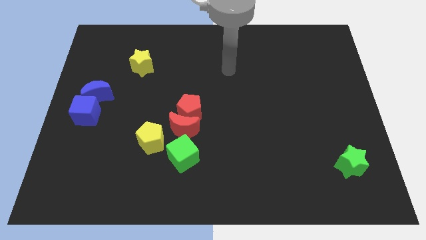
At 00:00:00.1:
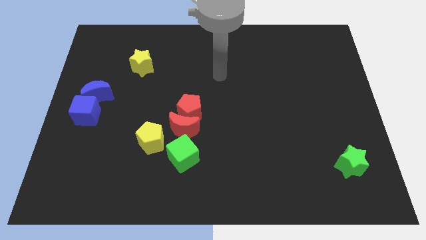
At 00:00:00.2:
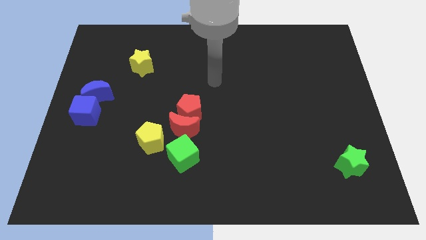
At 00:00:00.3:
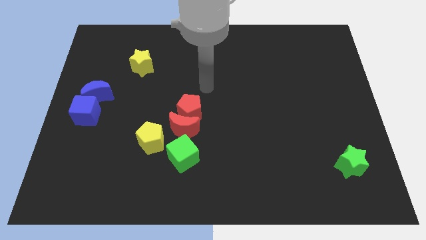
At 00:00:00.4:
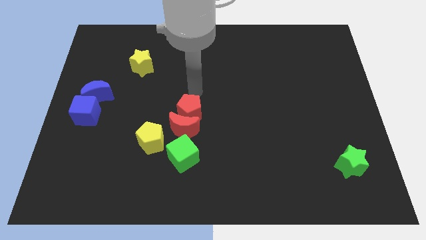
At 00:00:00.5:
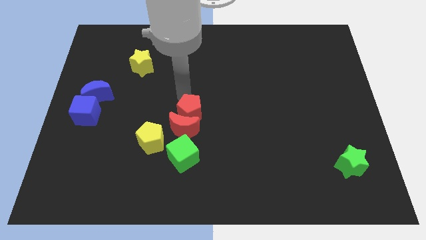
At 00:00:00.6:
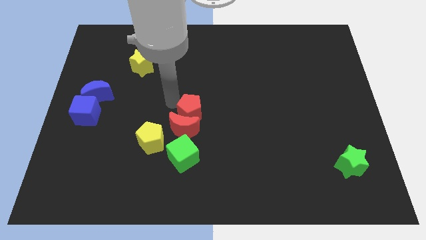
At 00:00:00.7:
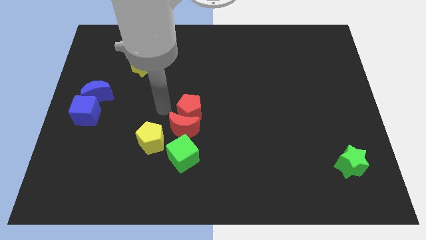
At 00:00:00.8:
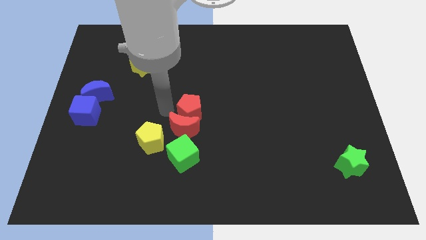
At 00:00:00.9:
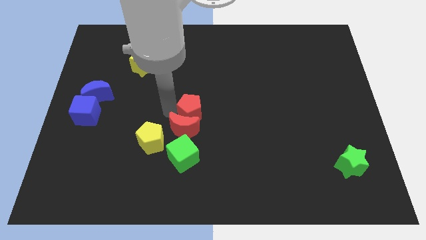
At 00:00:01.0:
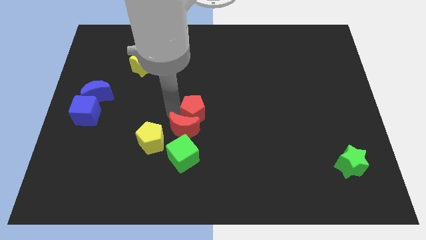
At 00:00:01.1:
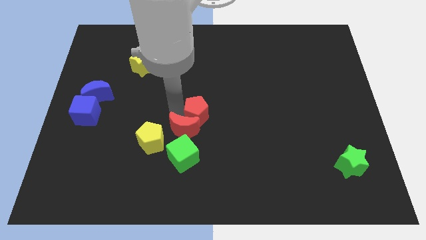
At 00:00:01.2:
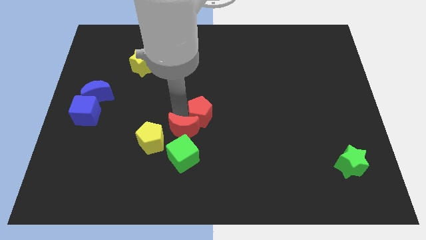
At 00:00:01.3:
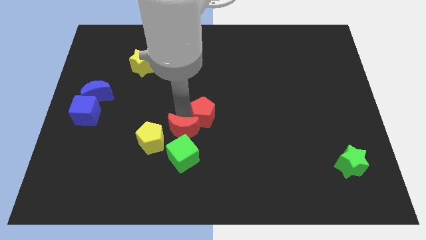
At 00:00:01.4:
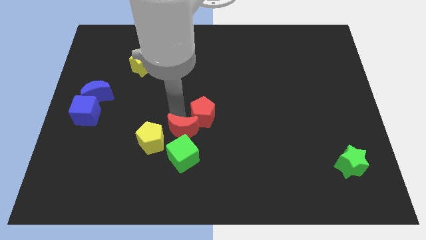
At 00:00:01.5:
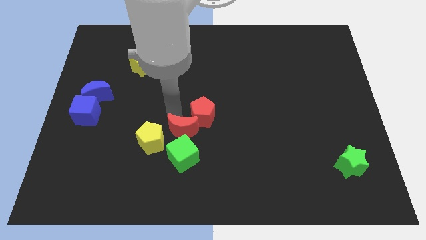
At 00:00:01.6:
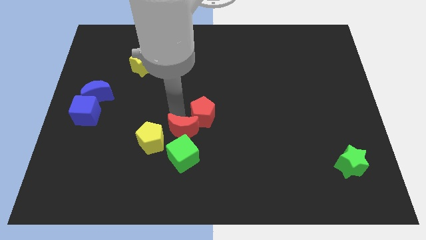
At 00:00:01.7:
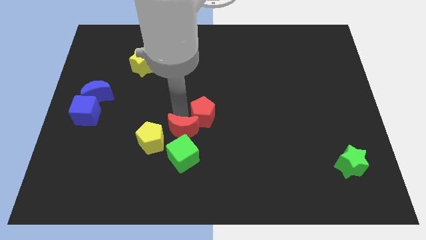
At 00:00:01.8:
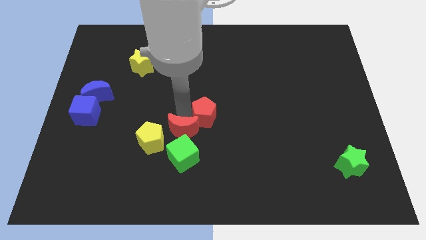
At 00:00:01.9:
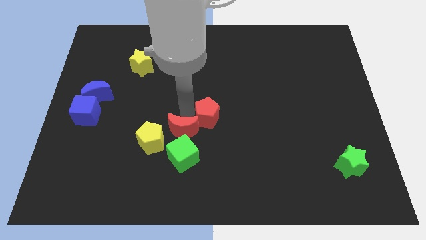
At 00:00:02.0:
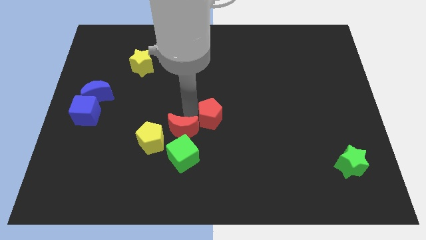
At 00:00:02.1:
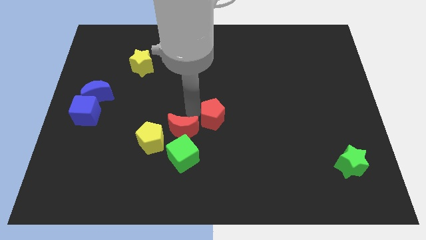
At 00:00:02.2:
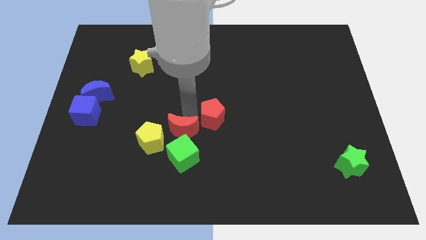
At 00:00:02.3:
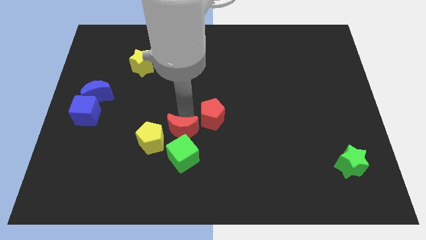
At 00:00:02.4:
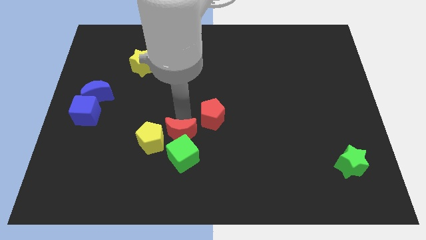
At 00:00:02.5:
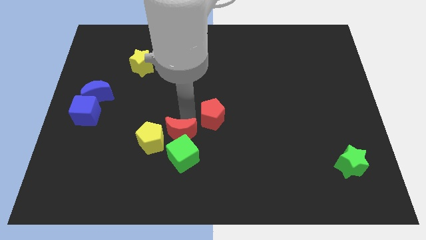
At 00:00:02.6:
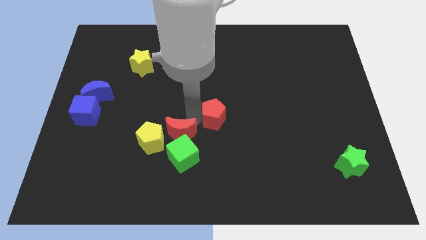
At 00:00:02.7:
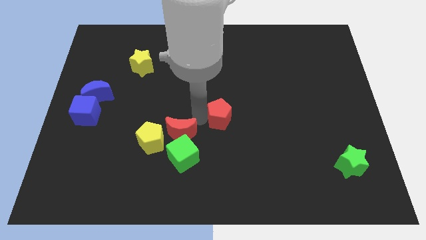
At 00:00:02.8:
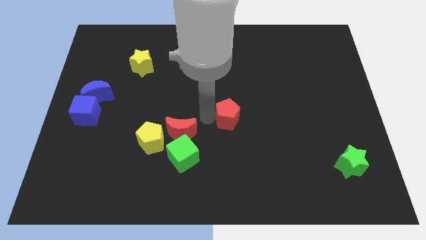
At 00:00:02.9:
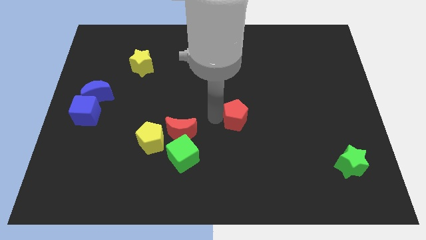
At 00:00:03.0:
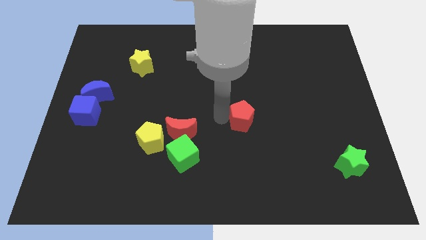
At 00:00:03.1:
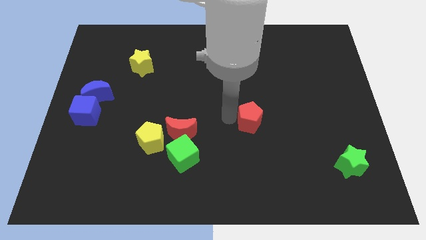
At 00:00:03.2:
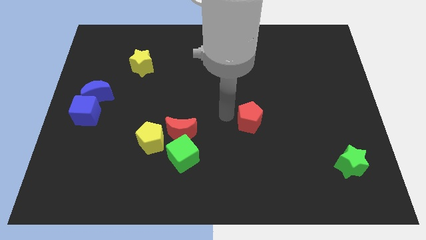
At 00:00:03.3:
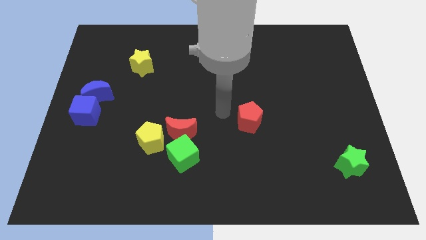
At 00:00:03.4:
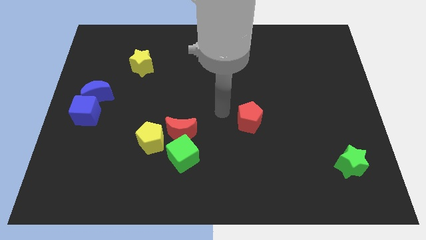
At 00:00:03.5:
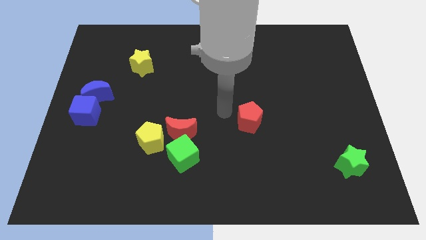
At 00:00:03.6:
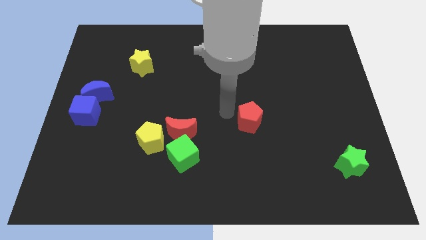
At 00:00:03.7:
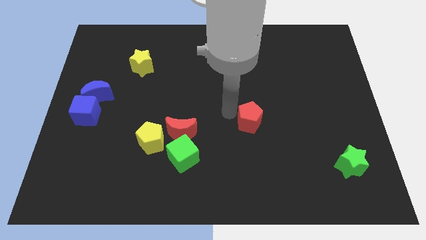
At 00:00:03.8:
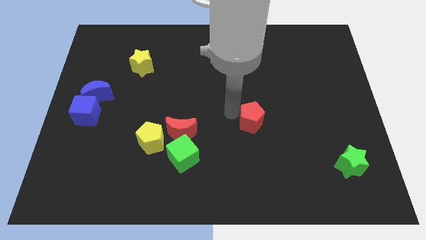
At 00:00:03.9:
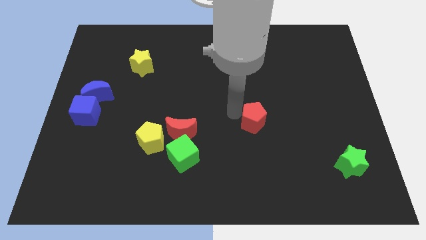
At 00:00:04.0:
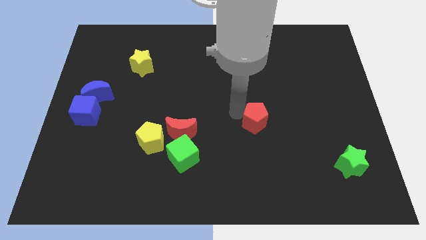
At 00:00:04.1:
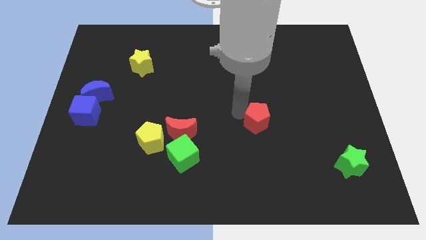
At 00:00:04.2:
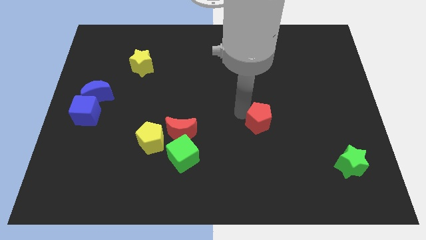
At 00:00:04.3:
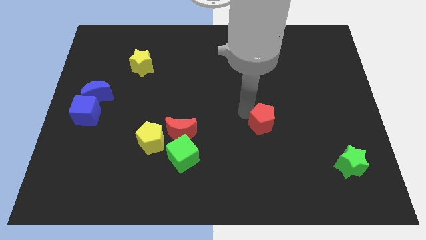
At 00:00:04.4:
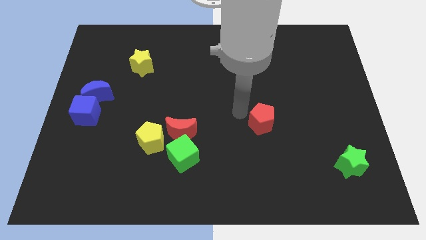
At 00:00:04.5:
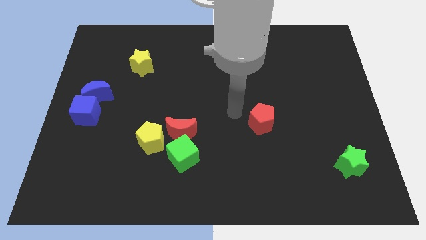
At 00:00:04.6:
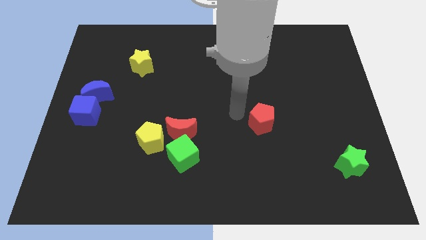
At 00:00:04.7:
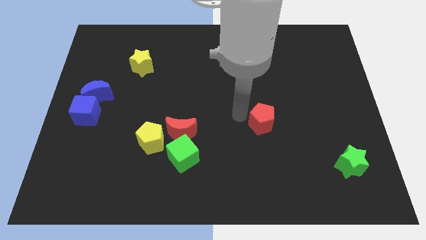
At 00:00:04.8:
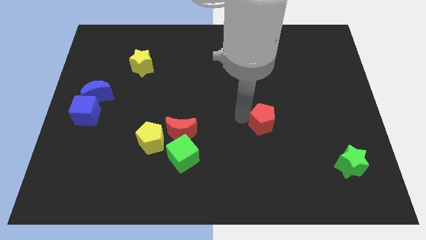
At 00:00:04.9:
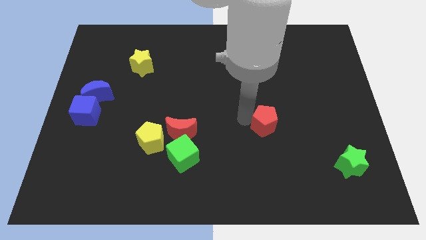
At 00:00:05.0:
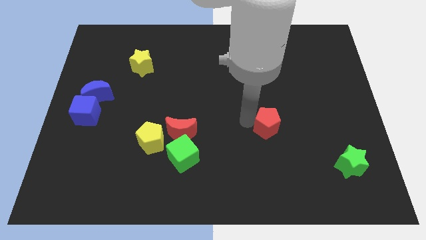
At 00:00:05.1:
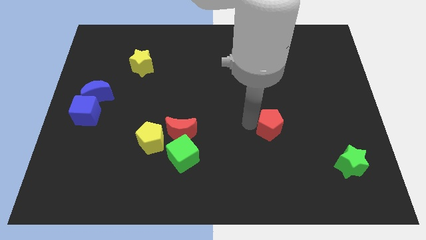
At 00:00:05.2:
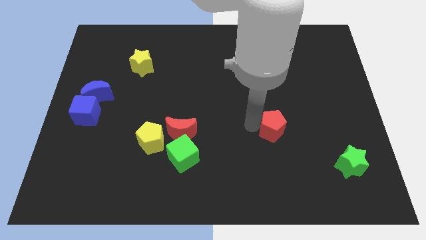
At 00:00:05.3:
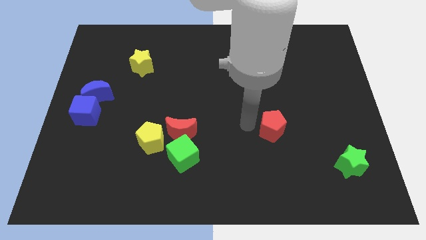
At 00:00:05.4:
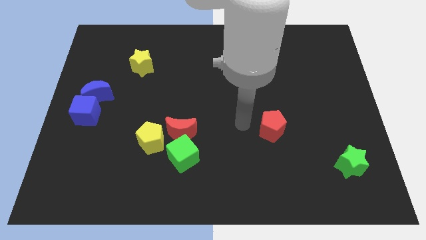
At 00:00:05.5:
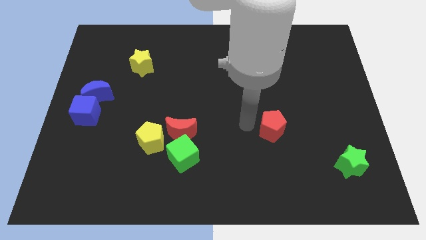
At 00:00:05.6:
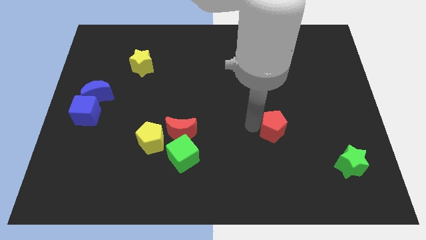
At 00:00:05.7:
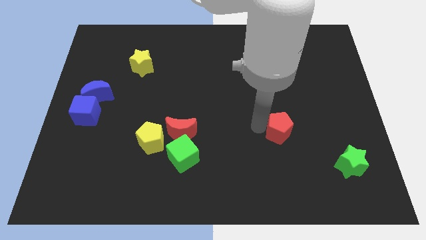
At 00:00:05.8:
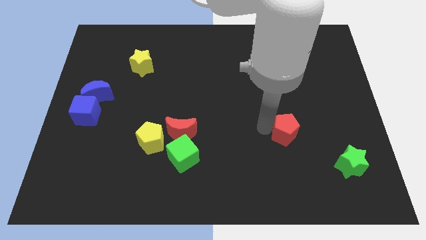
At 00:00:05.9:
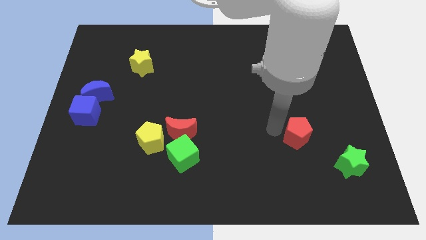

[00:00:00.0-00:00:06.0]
move the red pentagon to the top left of the green star

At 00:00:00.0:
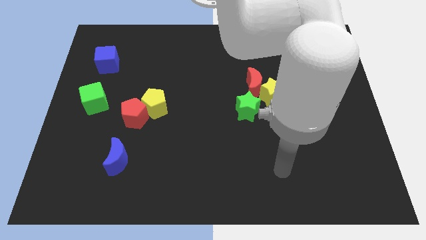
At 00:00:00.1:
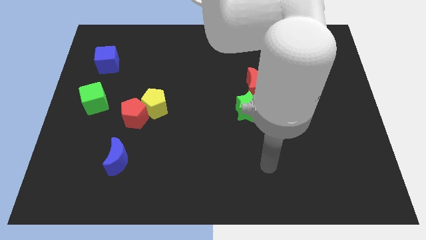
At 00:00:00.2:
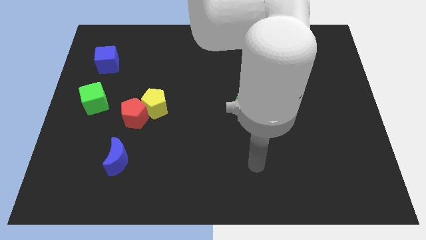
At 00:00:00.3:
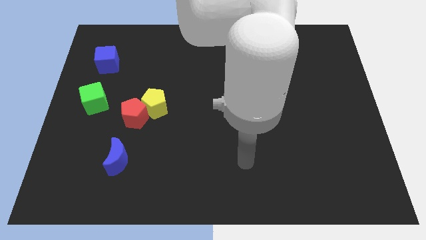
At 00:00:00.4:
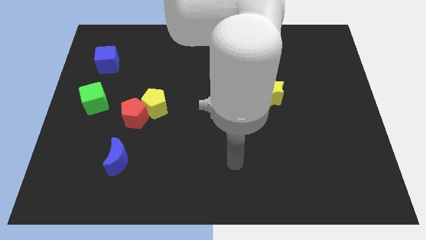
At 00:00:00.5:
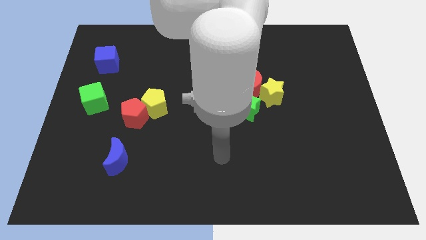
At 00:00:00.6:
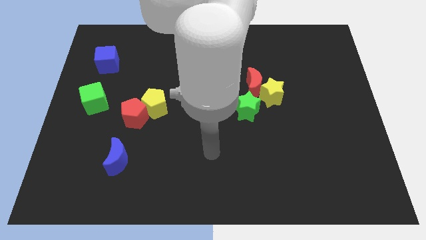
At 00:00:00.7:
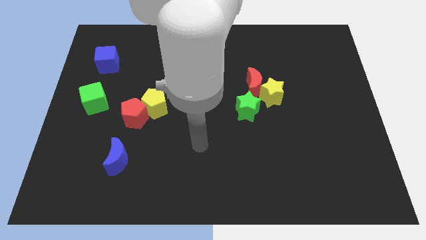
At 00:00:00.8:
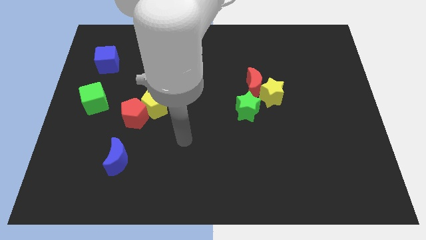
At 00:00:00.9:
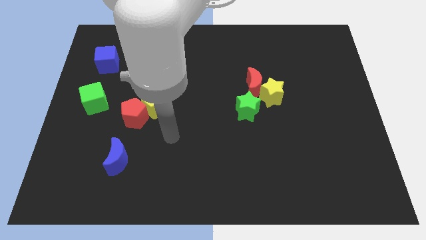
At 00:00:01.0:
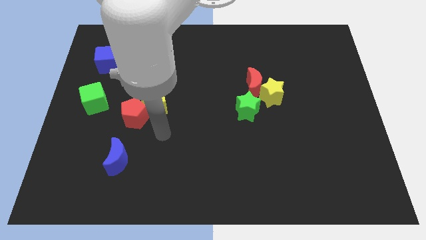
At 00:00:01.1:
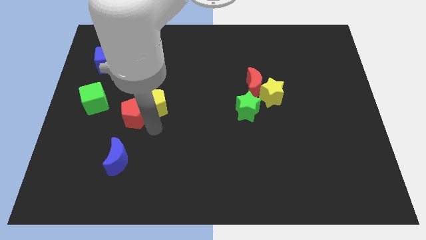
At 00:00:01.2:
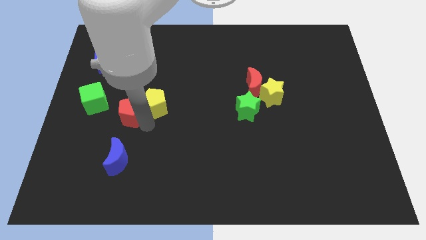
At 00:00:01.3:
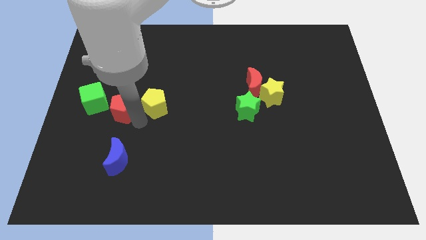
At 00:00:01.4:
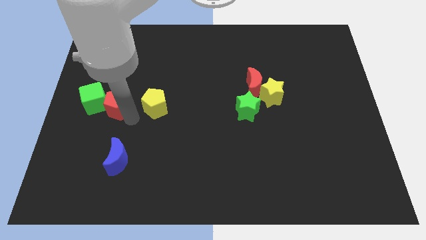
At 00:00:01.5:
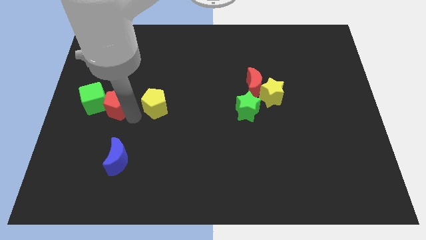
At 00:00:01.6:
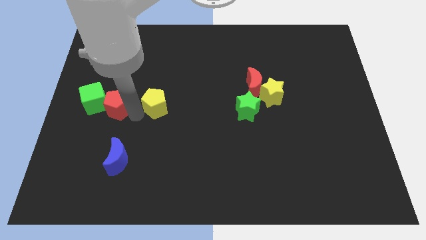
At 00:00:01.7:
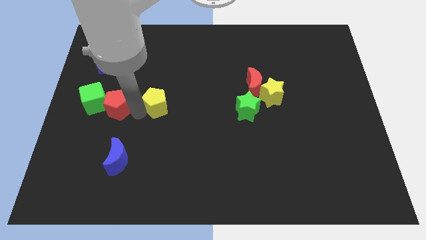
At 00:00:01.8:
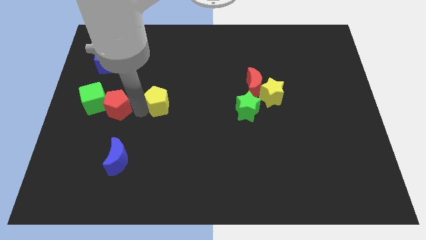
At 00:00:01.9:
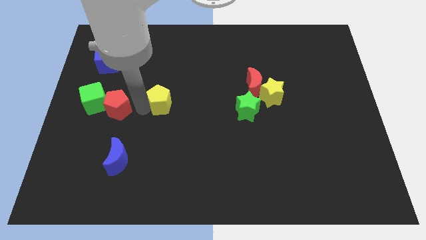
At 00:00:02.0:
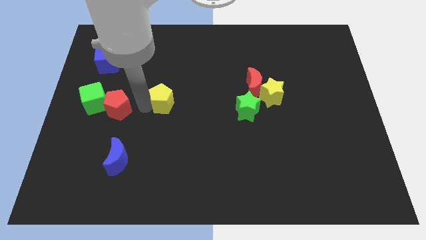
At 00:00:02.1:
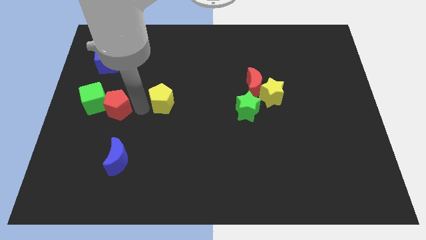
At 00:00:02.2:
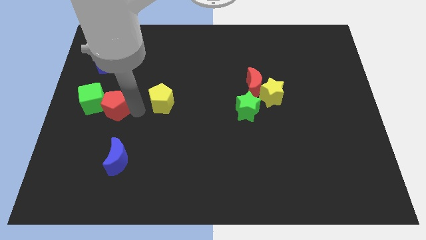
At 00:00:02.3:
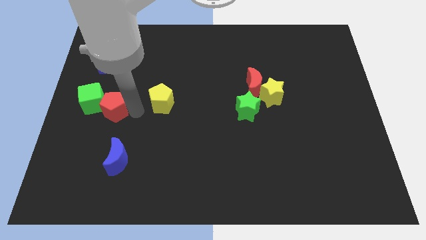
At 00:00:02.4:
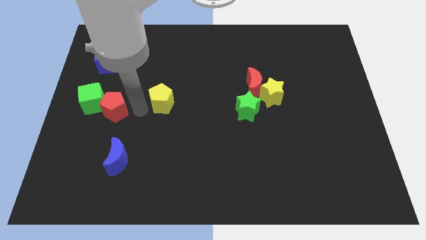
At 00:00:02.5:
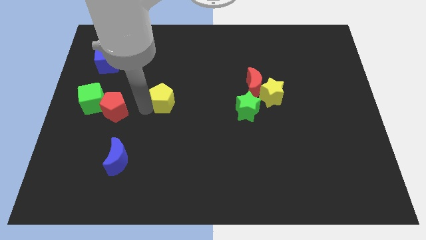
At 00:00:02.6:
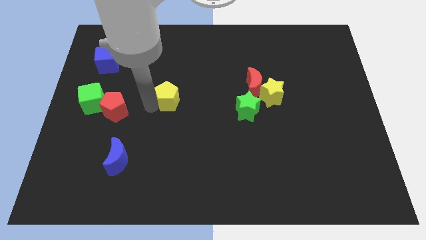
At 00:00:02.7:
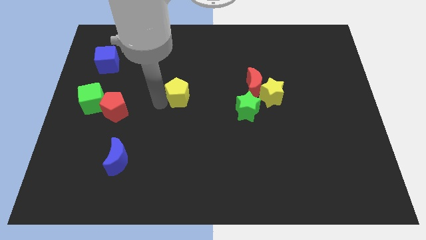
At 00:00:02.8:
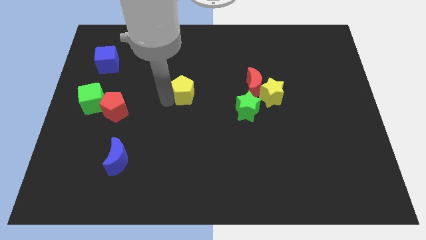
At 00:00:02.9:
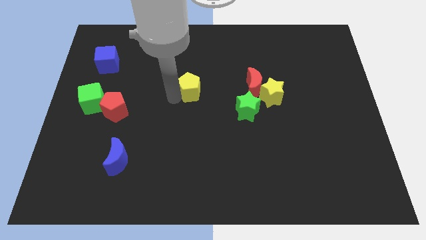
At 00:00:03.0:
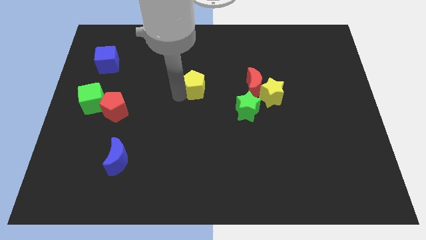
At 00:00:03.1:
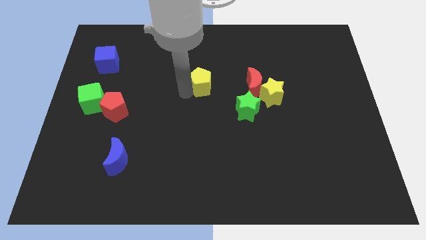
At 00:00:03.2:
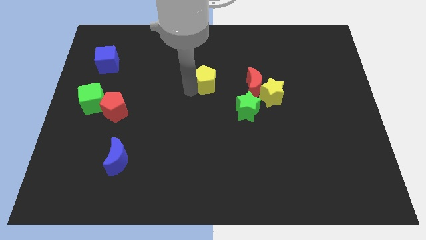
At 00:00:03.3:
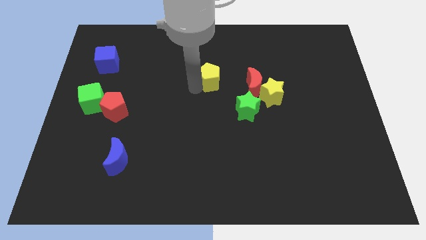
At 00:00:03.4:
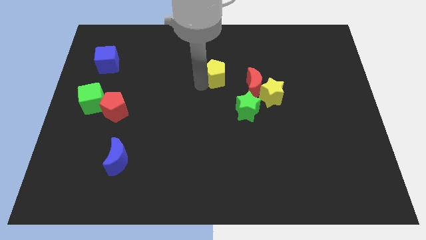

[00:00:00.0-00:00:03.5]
move the yellow pentagon diagonally up and to the left of the red moon
